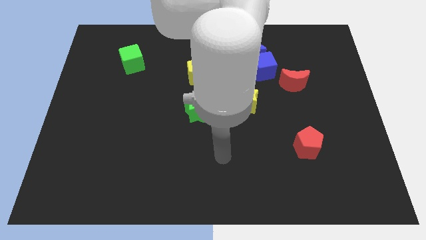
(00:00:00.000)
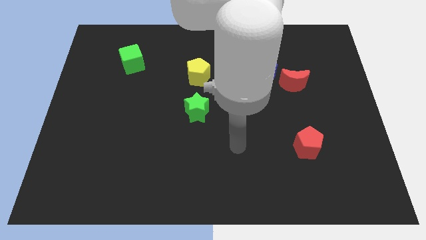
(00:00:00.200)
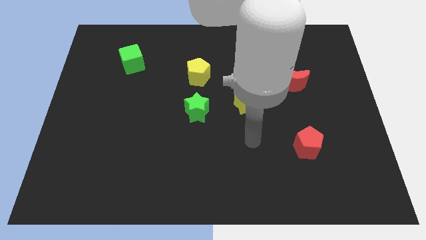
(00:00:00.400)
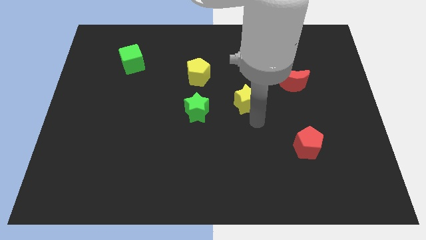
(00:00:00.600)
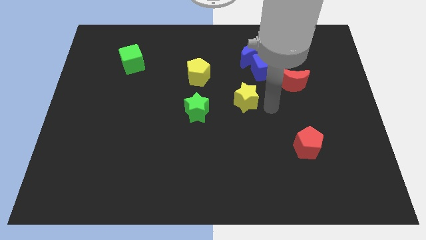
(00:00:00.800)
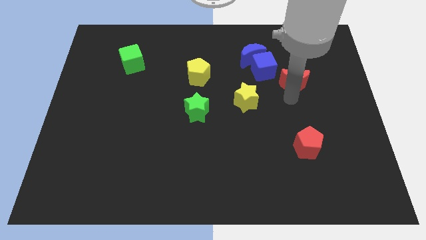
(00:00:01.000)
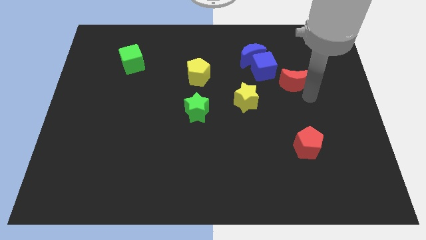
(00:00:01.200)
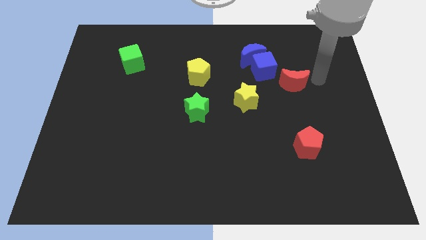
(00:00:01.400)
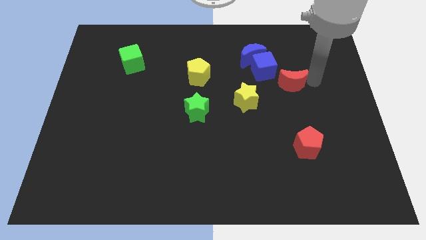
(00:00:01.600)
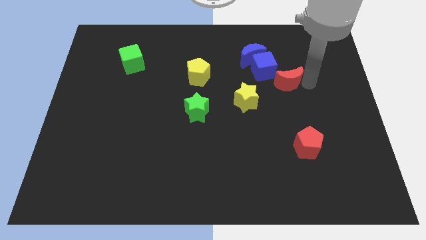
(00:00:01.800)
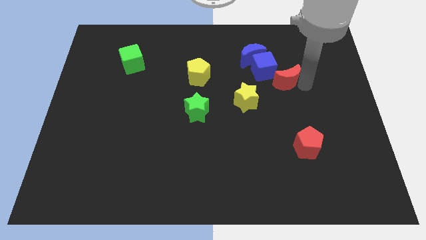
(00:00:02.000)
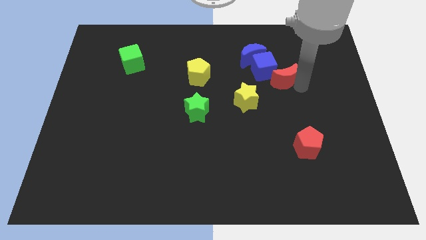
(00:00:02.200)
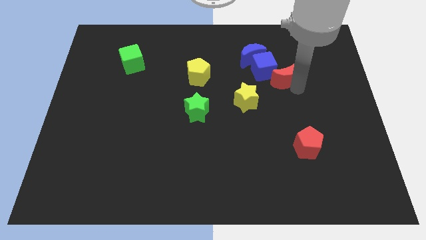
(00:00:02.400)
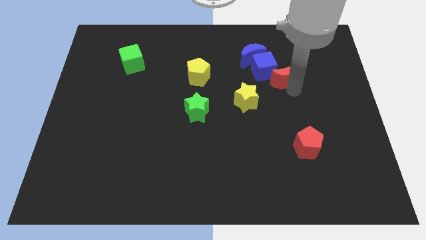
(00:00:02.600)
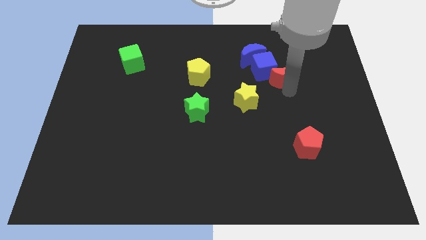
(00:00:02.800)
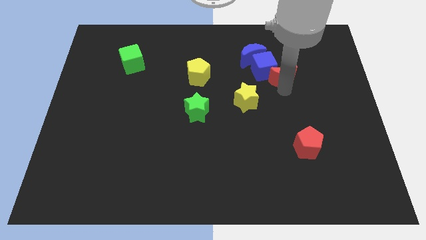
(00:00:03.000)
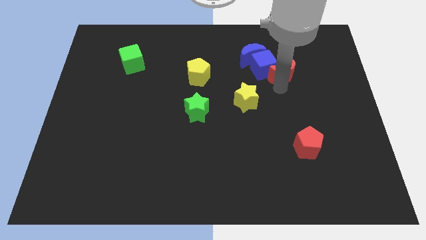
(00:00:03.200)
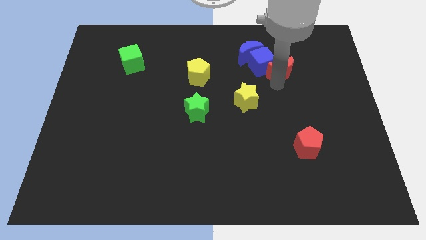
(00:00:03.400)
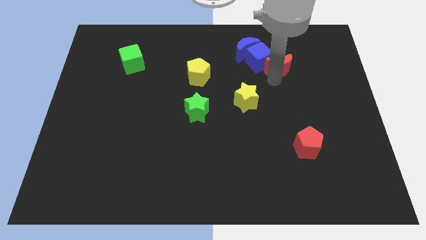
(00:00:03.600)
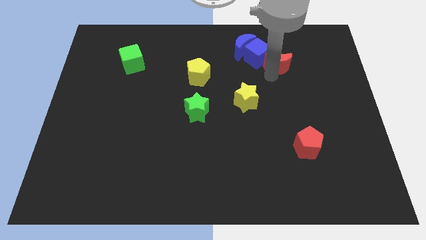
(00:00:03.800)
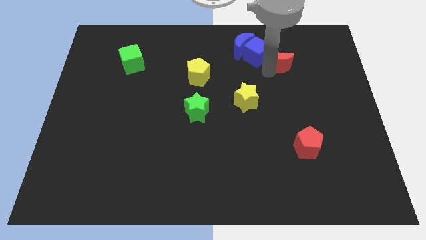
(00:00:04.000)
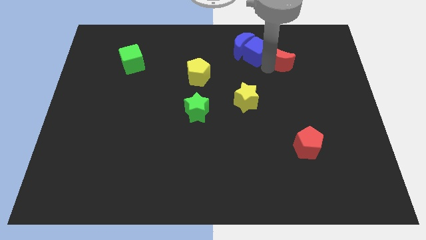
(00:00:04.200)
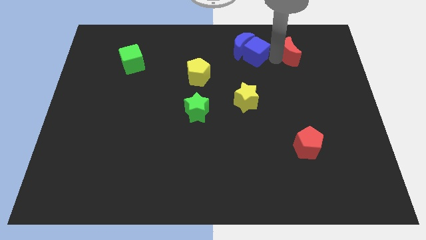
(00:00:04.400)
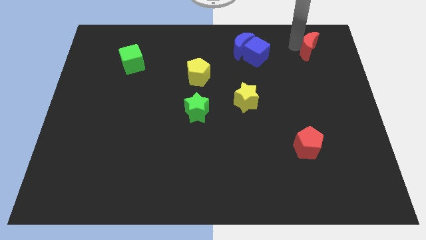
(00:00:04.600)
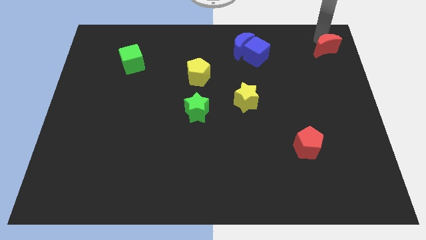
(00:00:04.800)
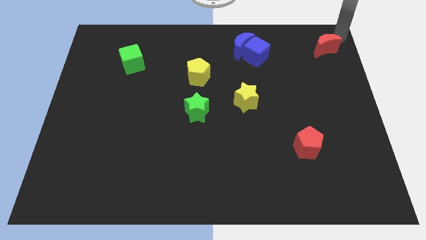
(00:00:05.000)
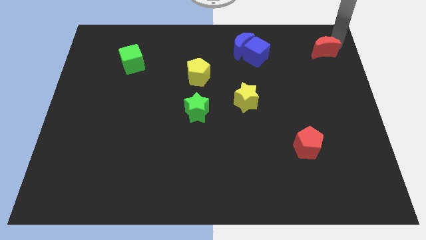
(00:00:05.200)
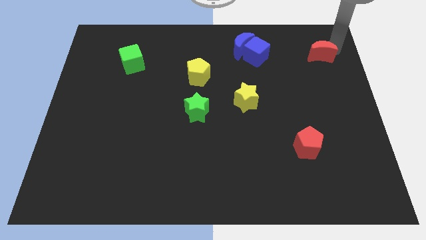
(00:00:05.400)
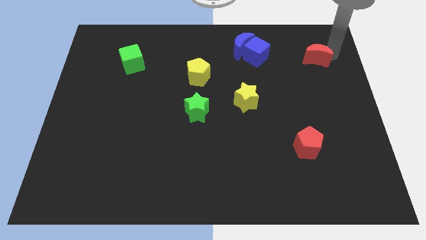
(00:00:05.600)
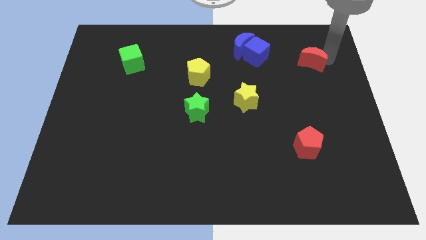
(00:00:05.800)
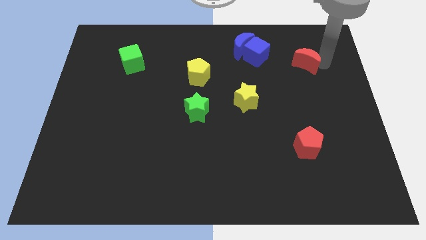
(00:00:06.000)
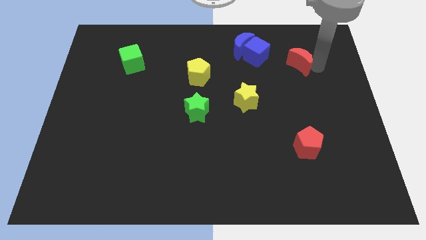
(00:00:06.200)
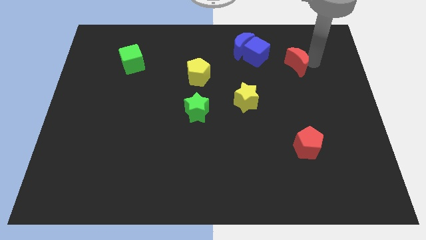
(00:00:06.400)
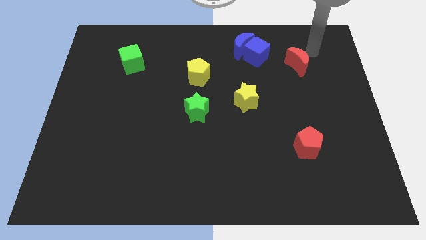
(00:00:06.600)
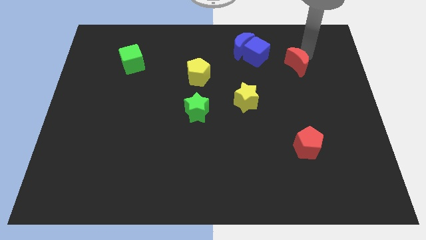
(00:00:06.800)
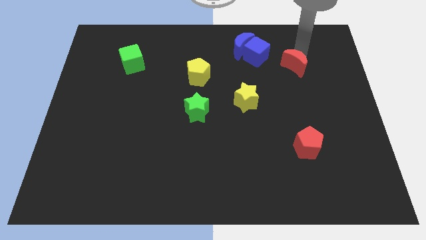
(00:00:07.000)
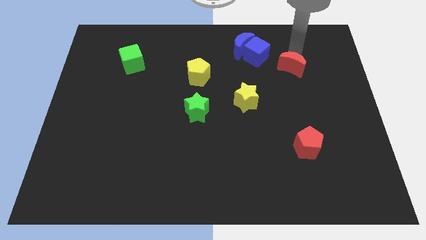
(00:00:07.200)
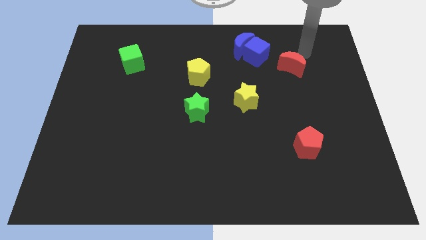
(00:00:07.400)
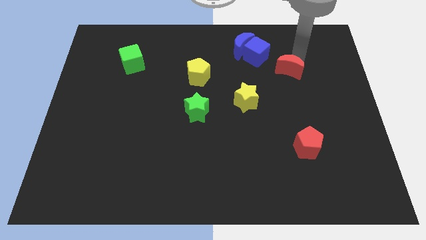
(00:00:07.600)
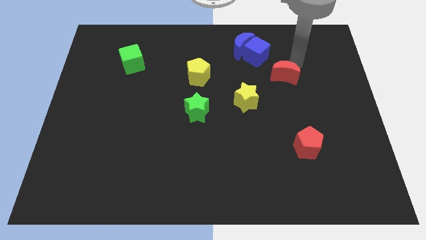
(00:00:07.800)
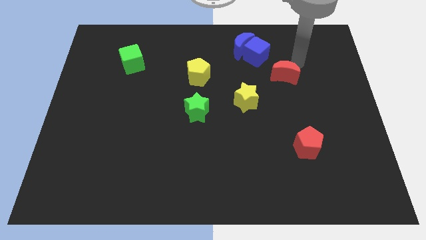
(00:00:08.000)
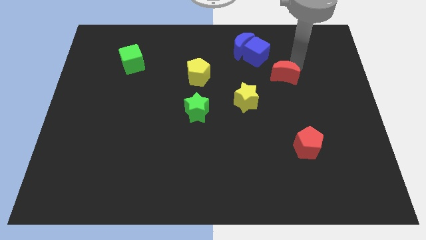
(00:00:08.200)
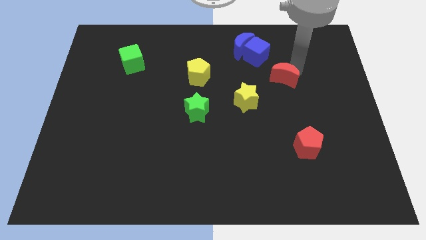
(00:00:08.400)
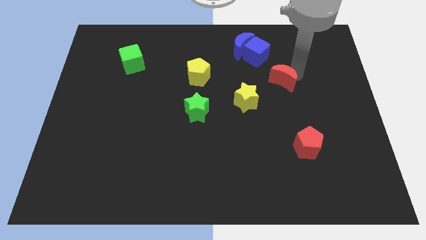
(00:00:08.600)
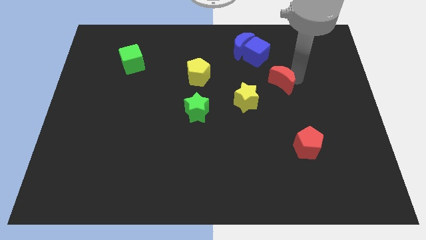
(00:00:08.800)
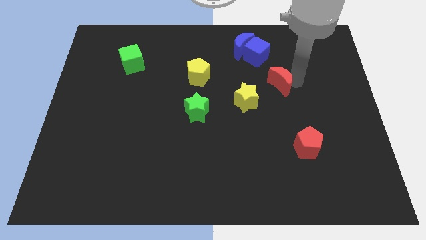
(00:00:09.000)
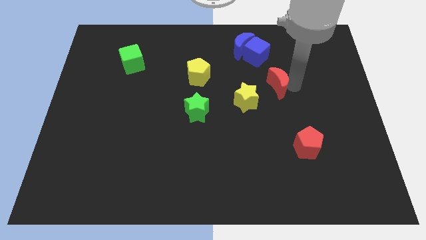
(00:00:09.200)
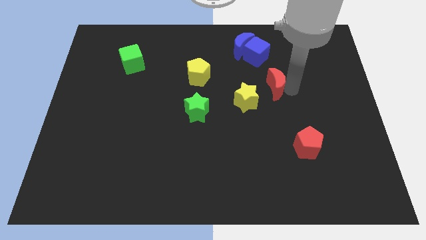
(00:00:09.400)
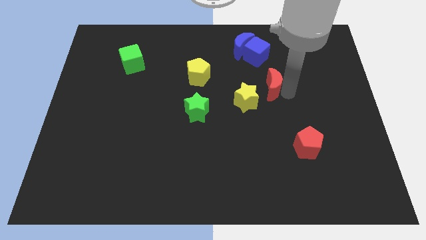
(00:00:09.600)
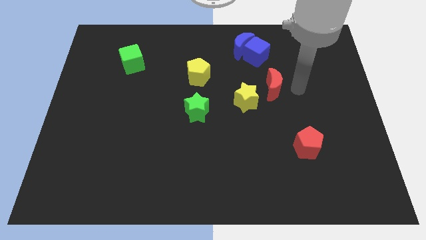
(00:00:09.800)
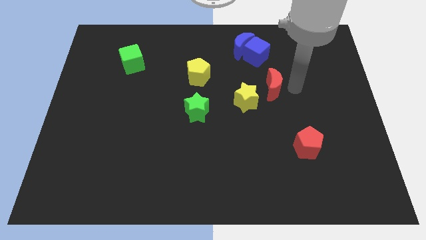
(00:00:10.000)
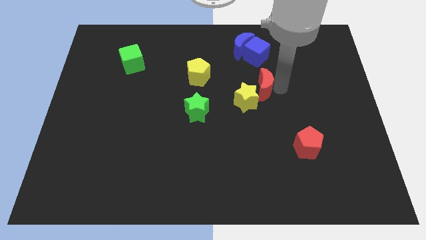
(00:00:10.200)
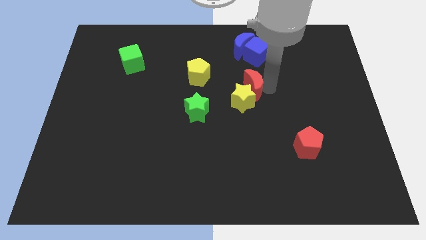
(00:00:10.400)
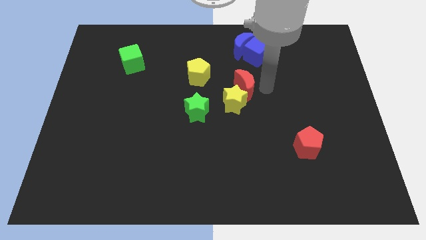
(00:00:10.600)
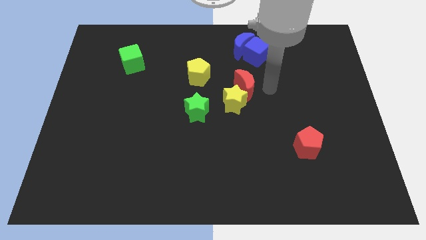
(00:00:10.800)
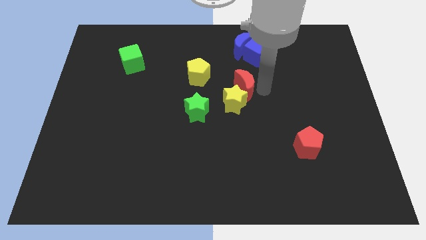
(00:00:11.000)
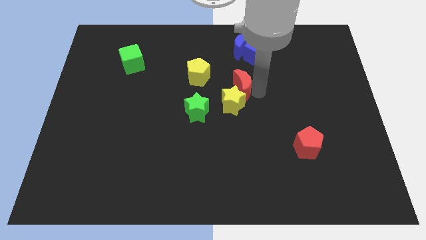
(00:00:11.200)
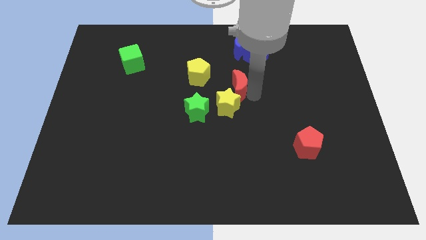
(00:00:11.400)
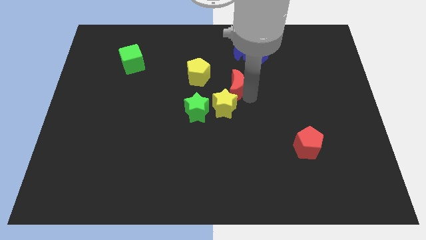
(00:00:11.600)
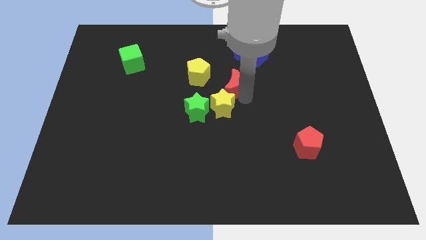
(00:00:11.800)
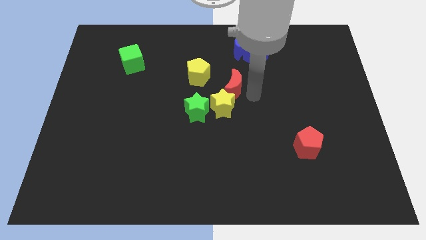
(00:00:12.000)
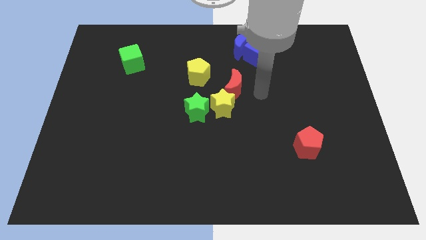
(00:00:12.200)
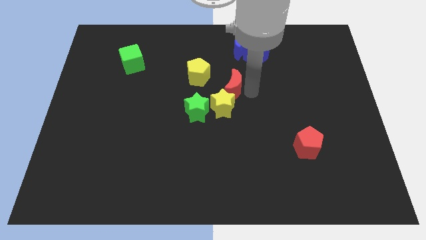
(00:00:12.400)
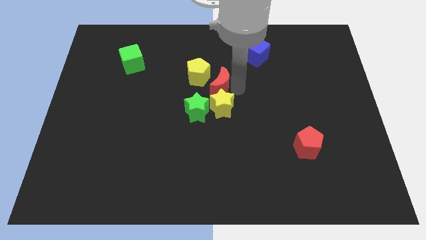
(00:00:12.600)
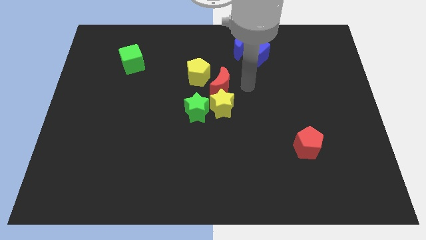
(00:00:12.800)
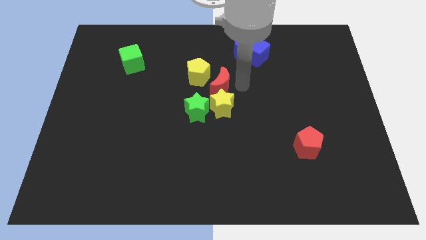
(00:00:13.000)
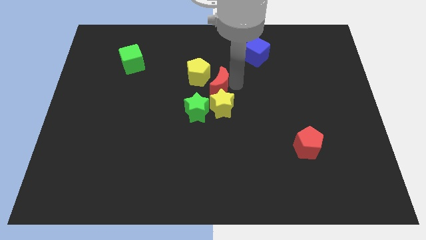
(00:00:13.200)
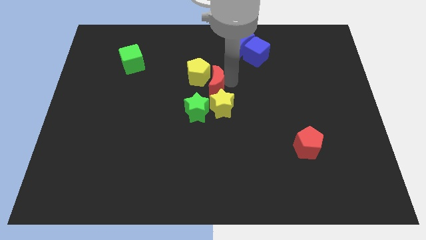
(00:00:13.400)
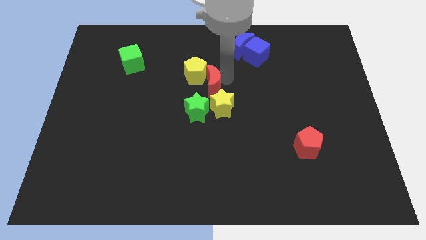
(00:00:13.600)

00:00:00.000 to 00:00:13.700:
move the red moon left

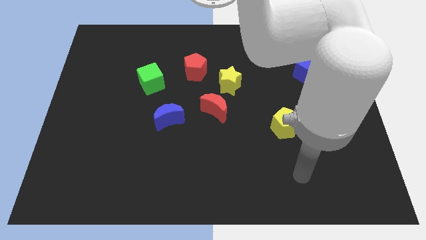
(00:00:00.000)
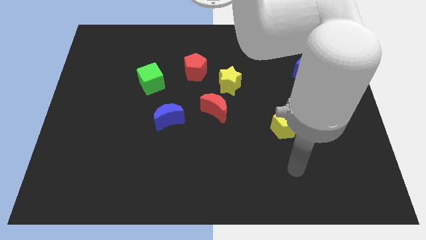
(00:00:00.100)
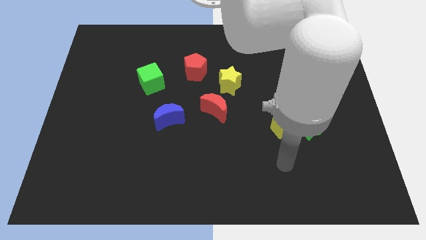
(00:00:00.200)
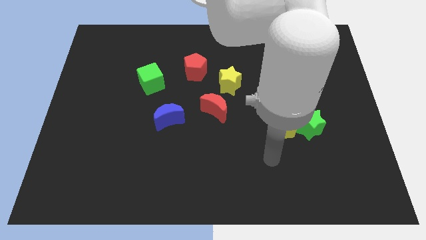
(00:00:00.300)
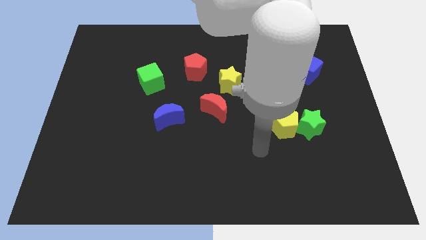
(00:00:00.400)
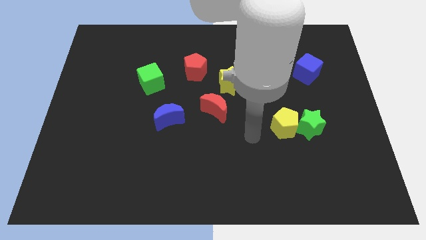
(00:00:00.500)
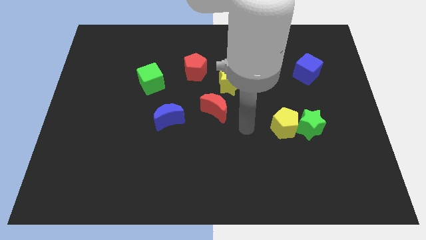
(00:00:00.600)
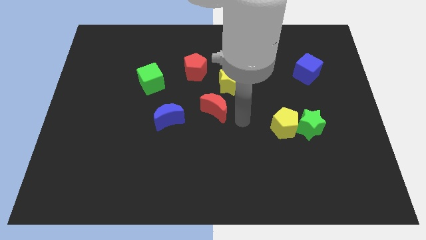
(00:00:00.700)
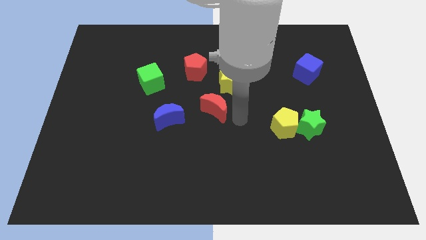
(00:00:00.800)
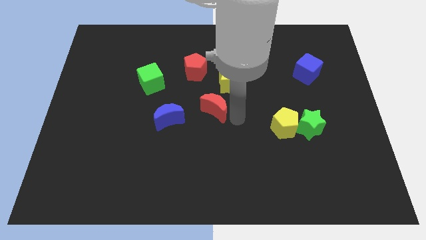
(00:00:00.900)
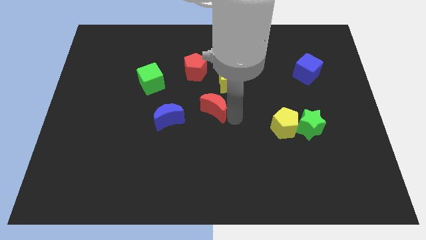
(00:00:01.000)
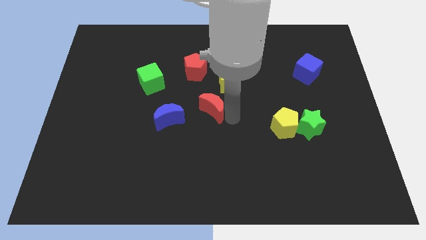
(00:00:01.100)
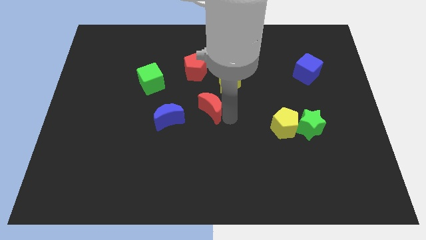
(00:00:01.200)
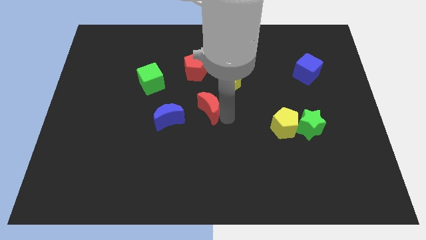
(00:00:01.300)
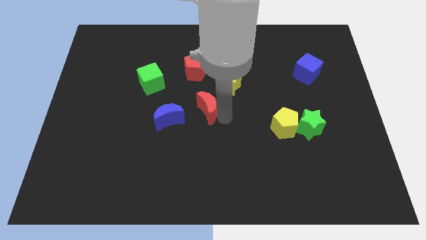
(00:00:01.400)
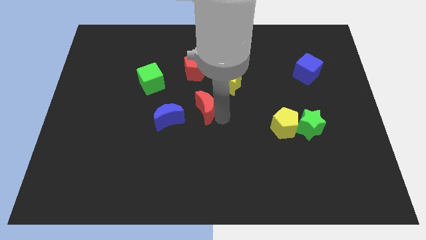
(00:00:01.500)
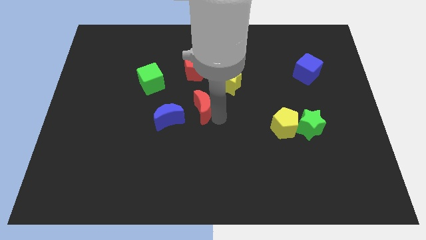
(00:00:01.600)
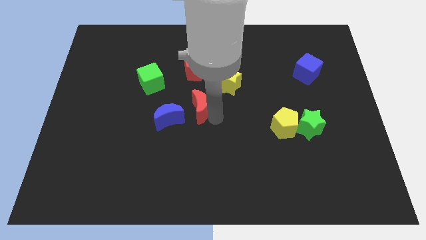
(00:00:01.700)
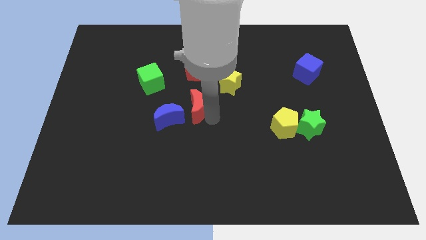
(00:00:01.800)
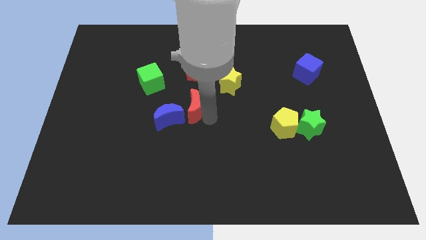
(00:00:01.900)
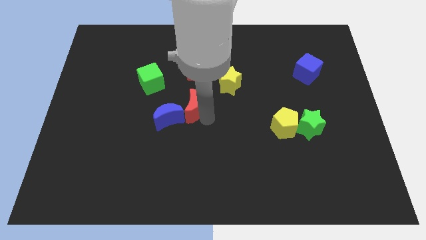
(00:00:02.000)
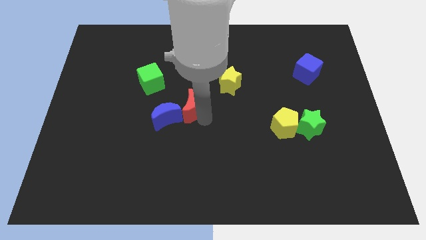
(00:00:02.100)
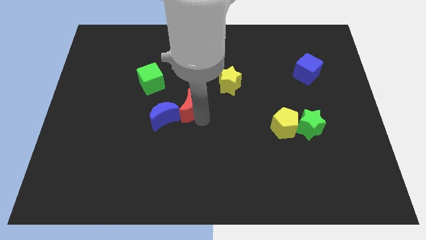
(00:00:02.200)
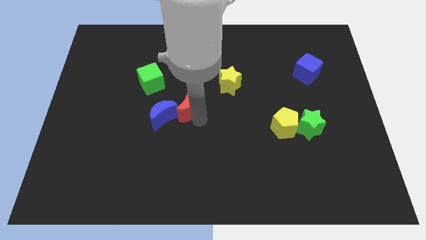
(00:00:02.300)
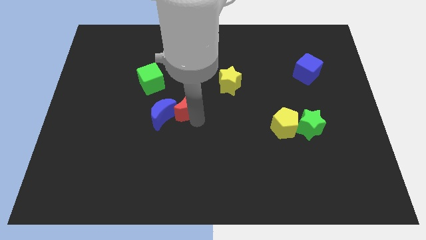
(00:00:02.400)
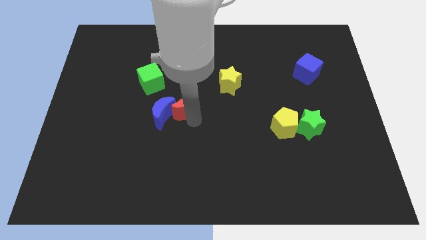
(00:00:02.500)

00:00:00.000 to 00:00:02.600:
move the red moon slightly left
